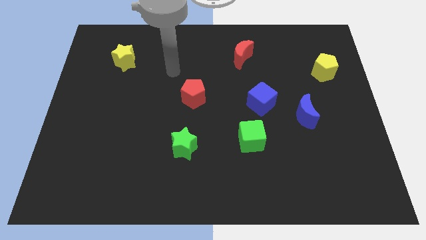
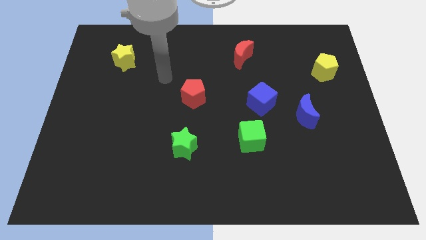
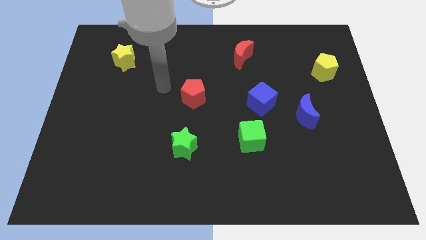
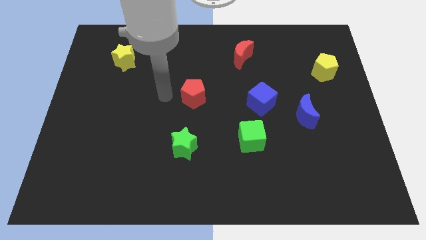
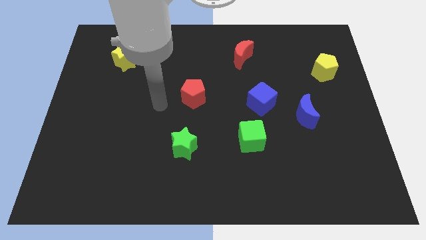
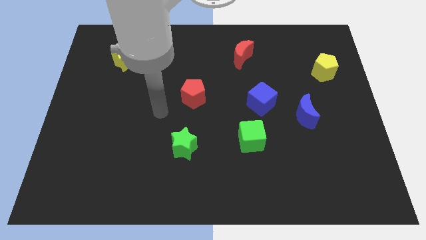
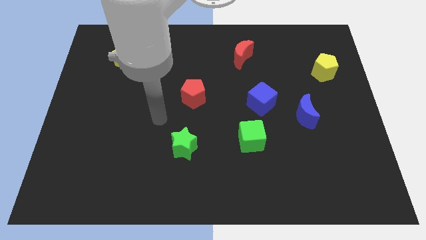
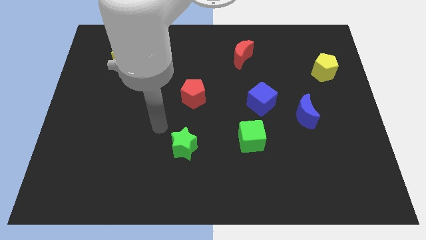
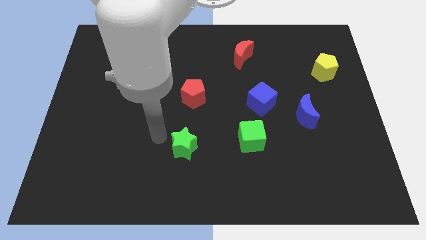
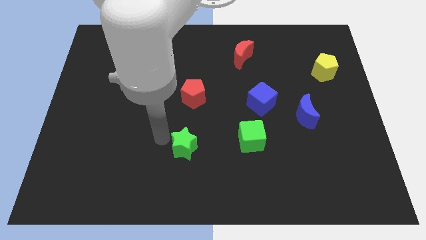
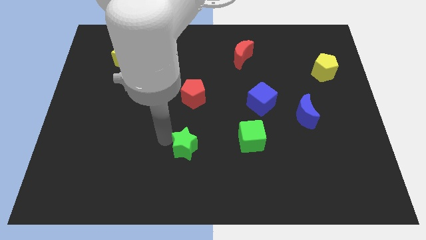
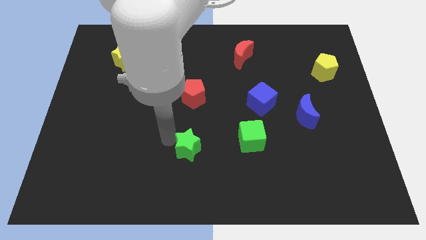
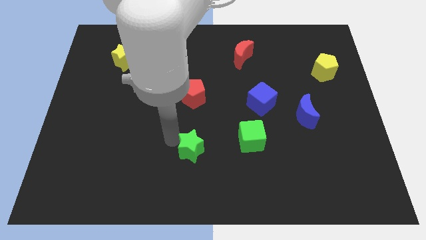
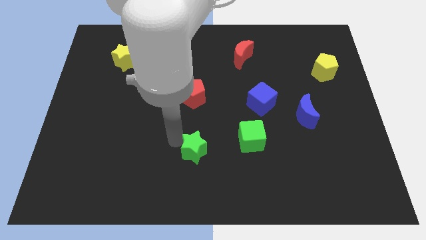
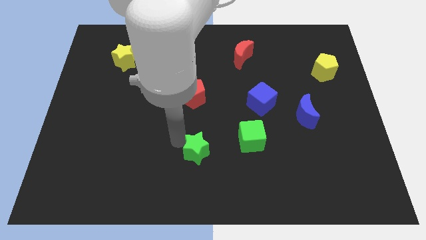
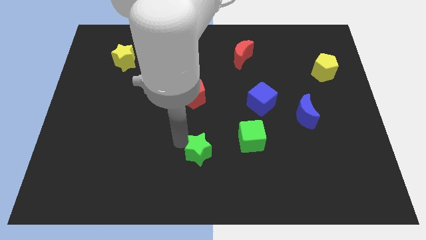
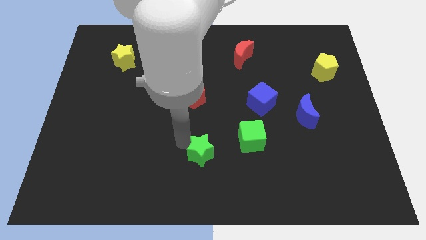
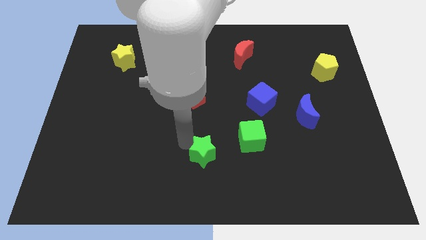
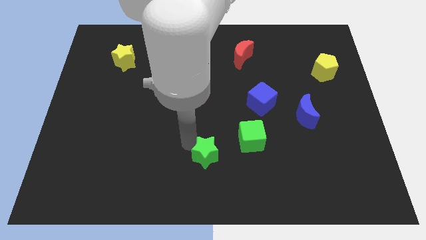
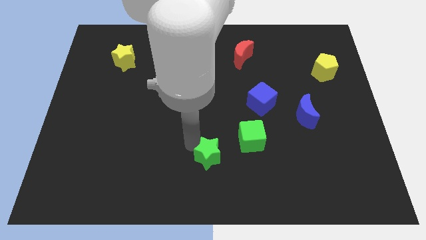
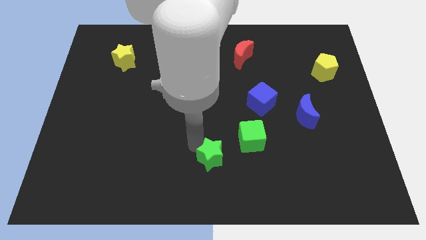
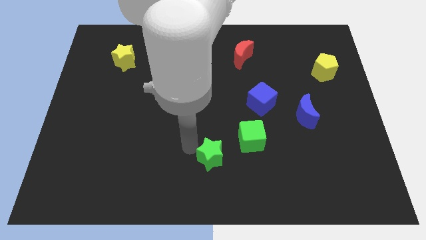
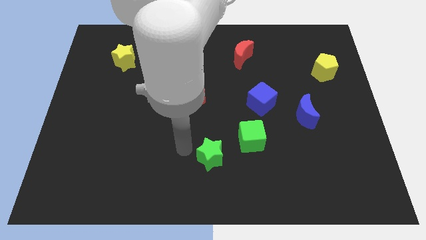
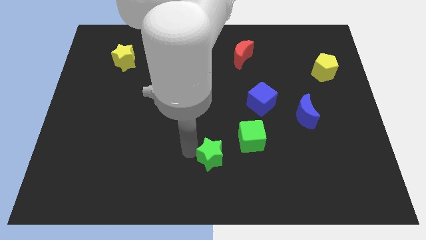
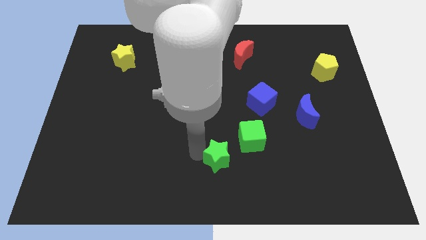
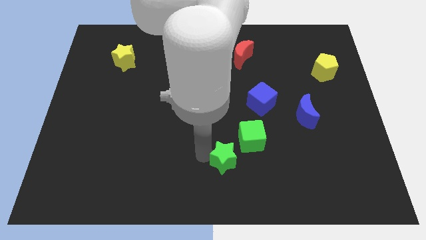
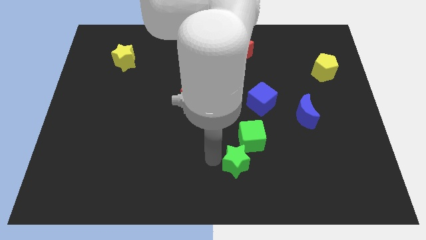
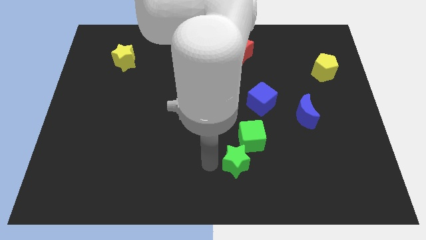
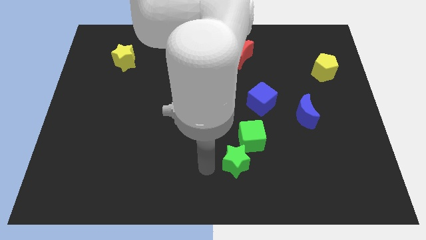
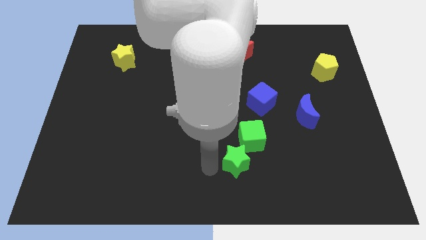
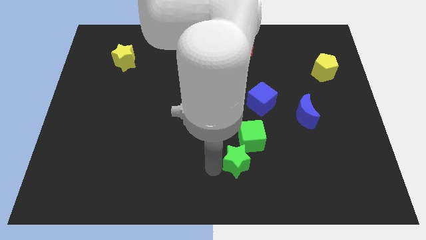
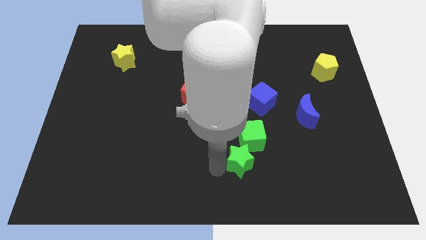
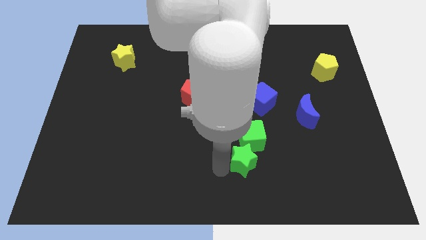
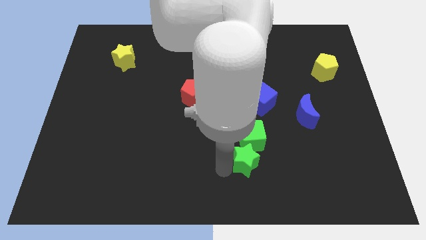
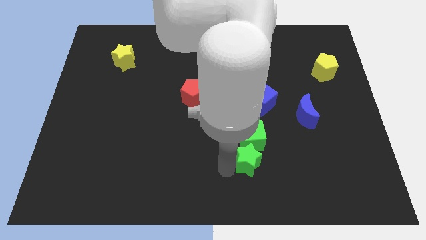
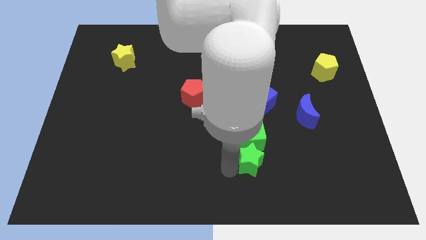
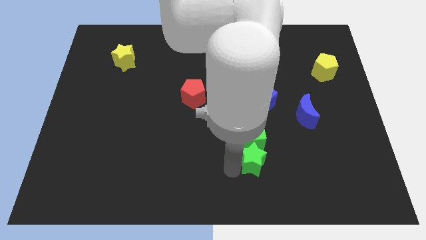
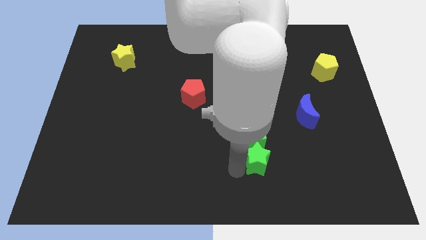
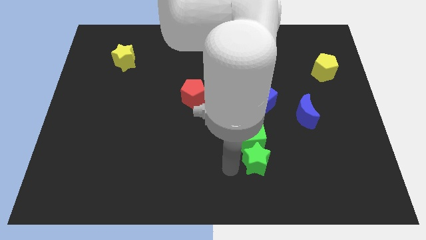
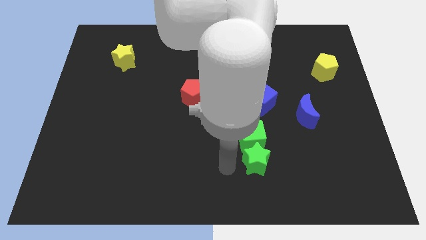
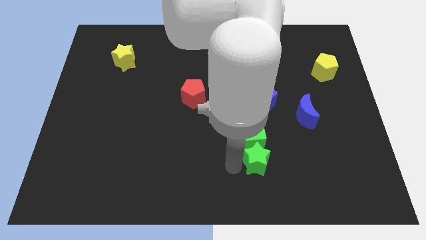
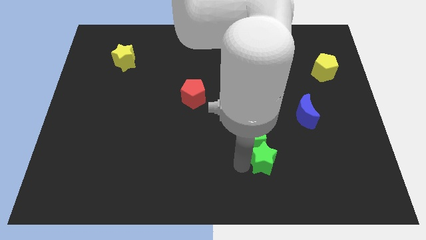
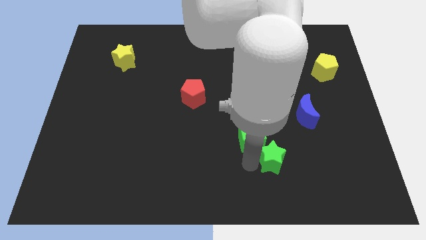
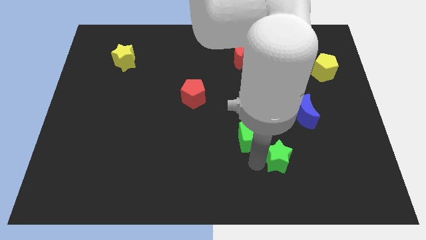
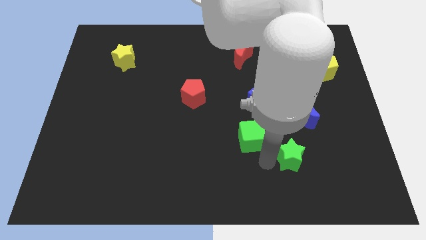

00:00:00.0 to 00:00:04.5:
push the green star right

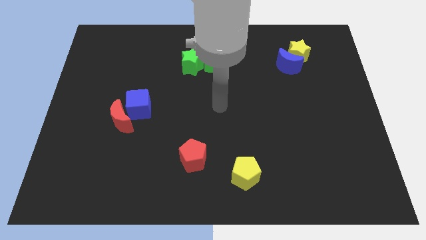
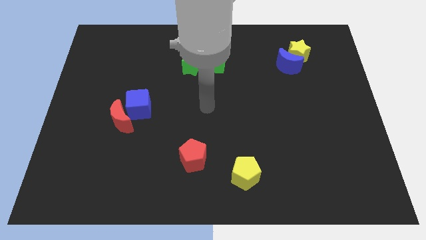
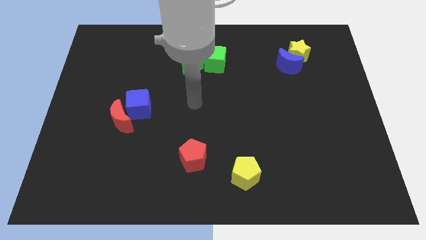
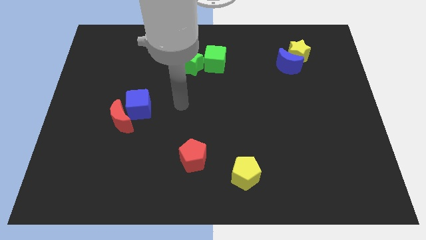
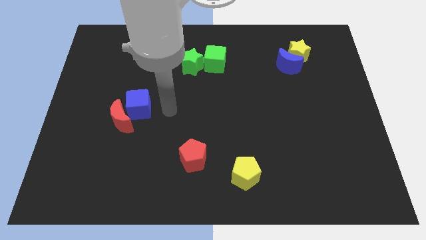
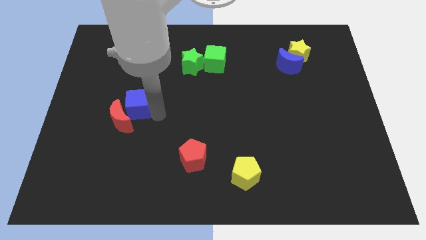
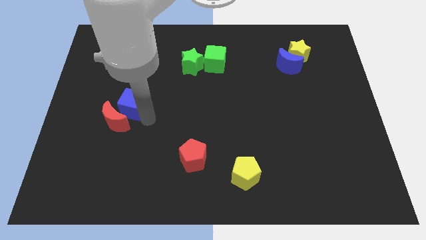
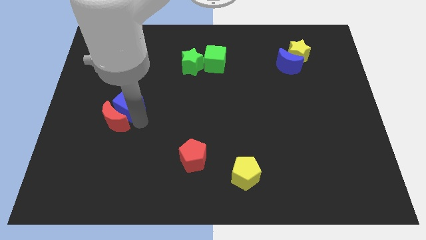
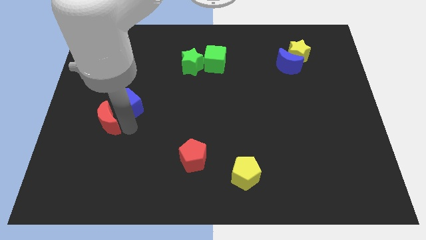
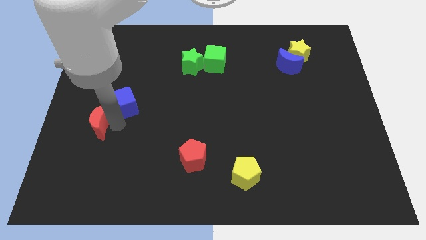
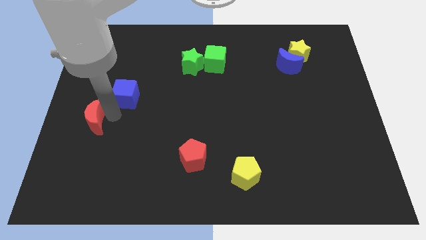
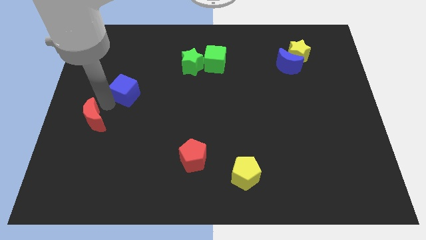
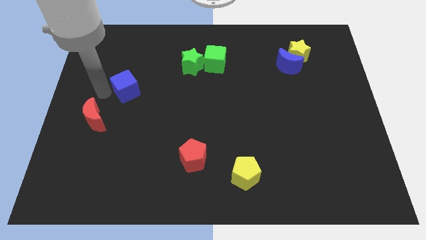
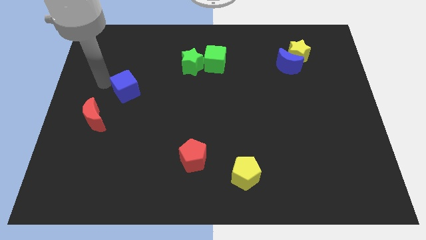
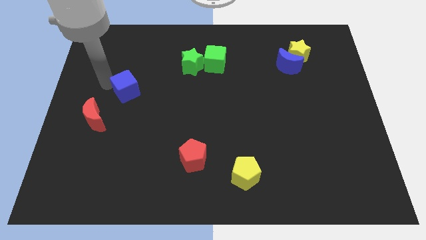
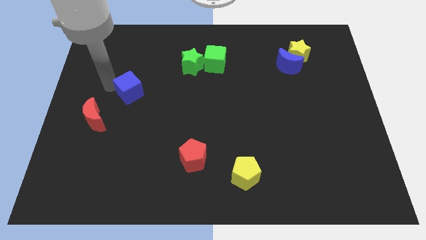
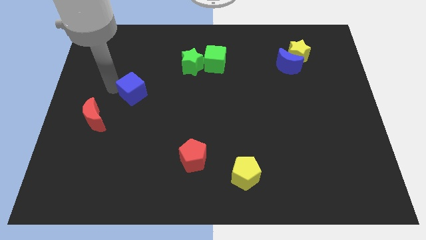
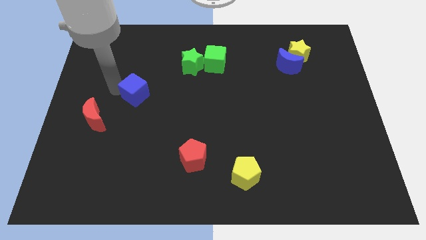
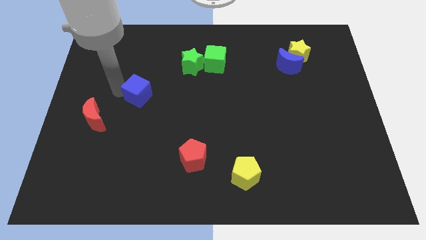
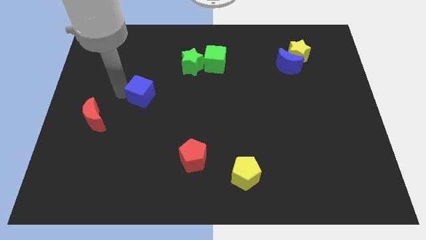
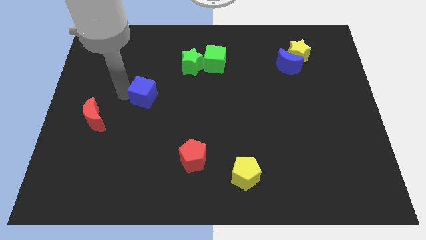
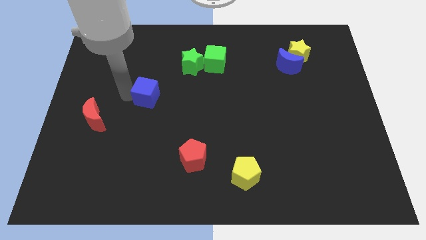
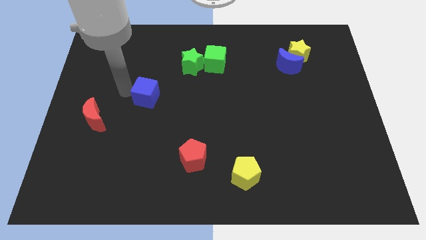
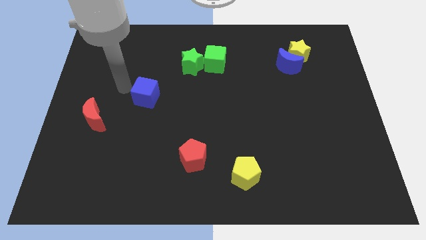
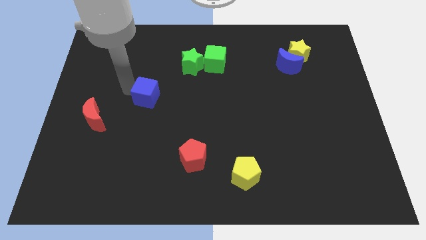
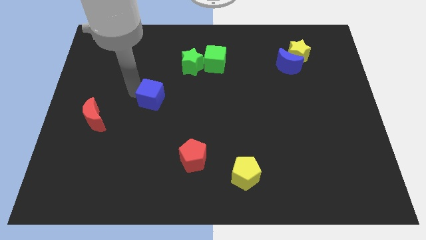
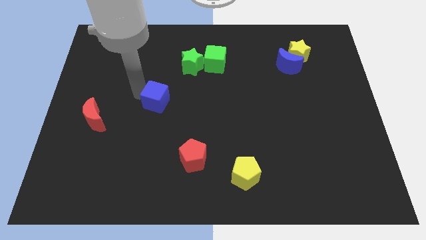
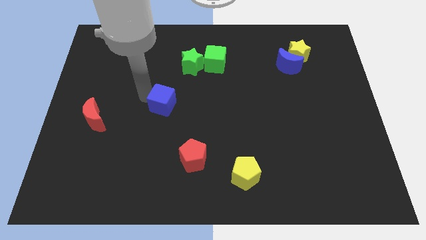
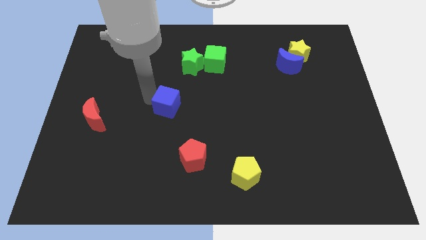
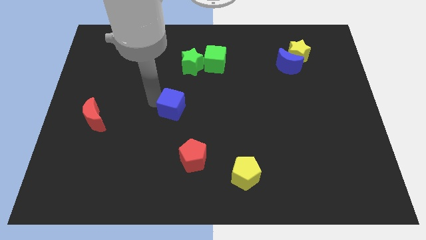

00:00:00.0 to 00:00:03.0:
push the blue cube right a little

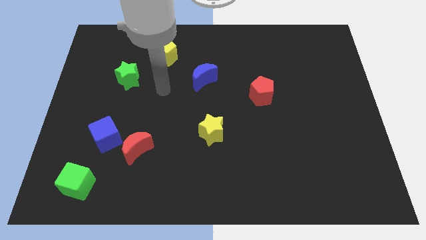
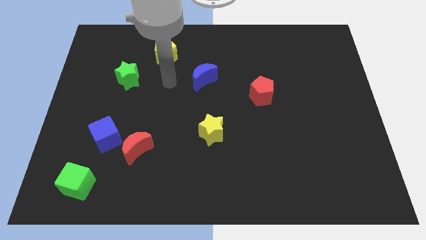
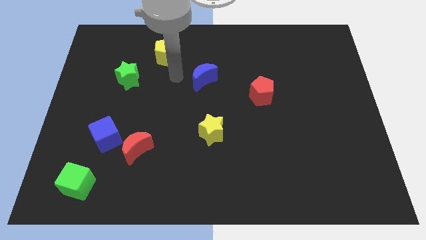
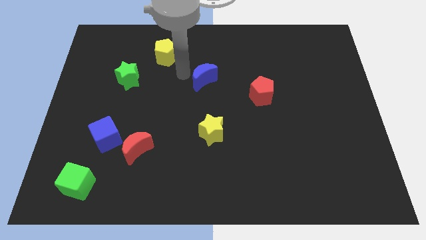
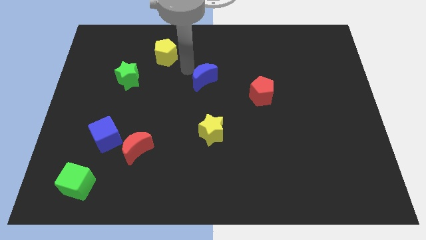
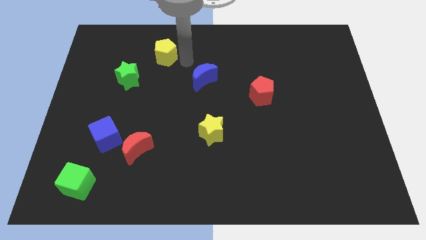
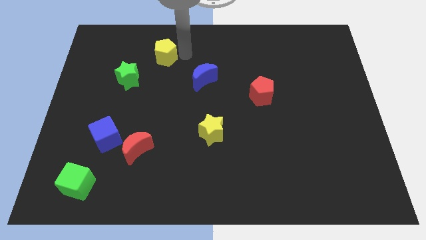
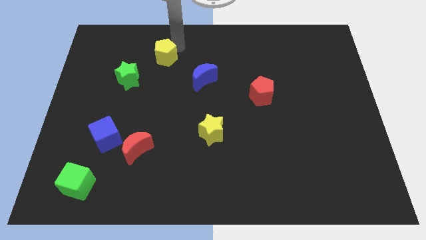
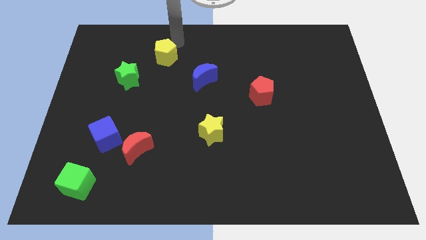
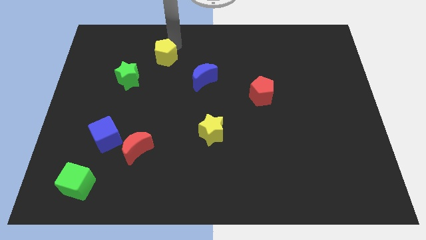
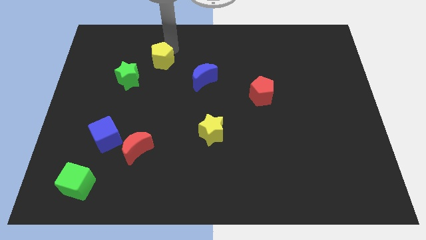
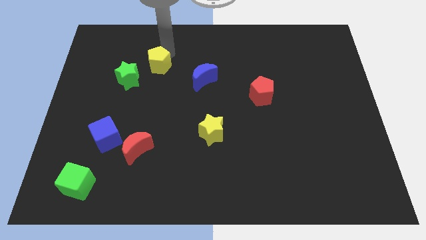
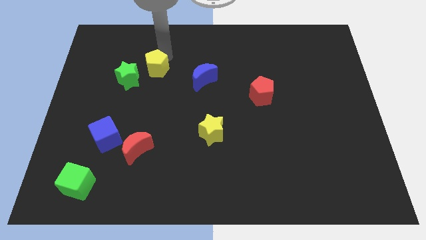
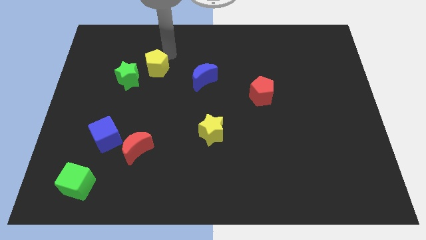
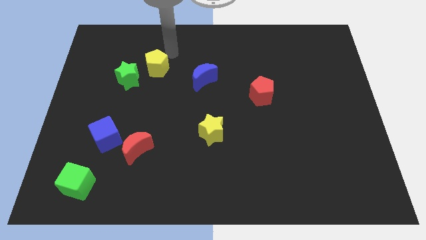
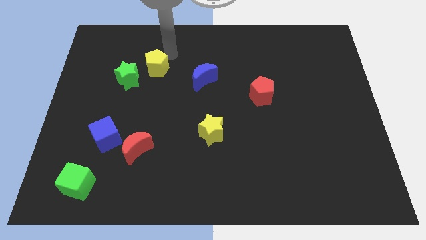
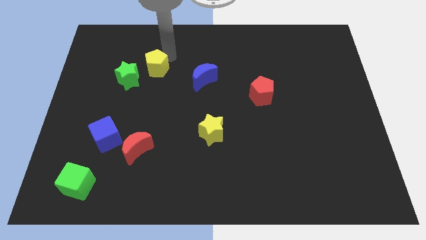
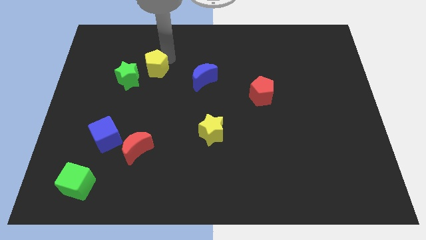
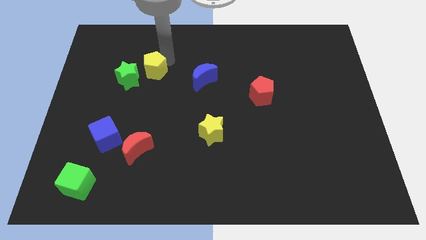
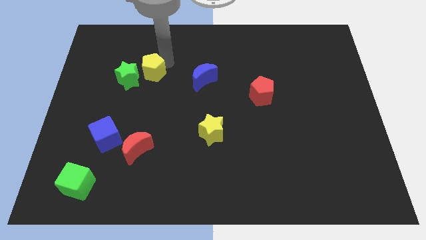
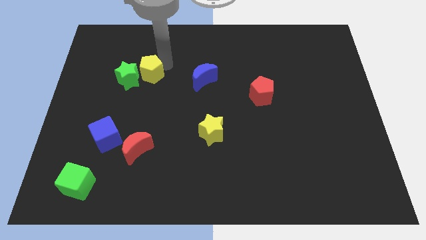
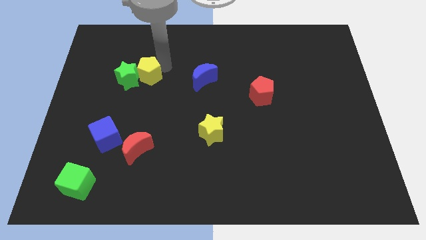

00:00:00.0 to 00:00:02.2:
slightly move the yellow pentagon downwards and left diagonally
